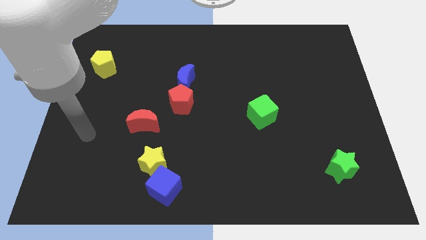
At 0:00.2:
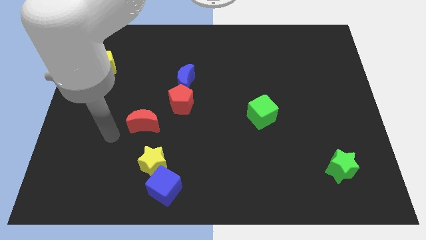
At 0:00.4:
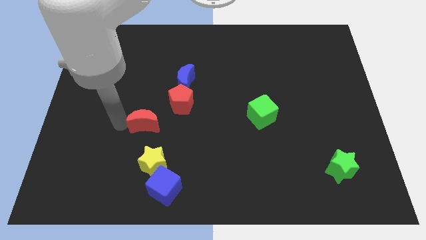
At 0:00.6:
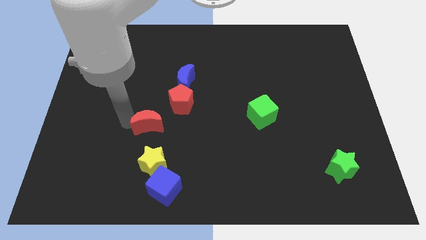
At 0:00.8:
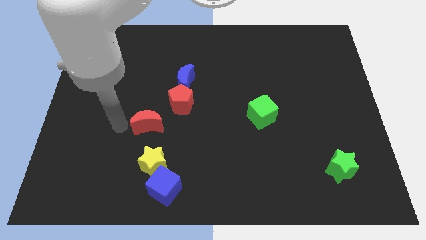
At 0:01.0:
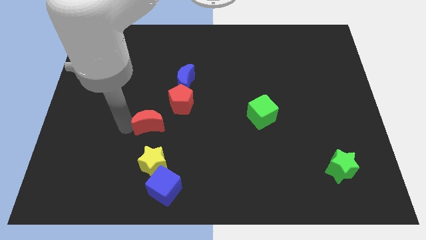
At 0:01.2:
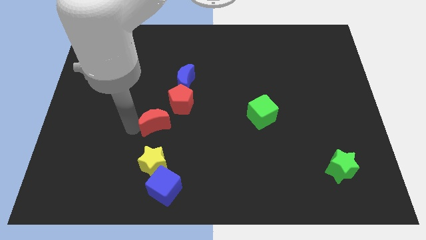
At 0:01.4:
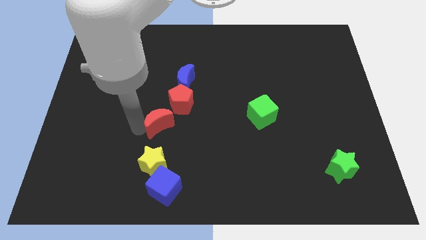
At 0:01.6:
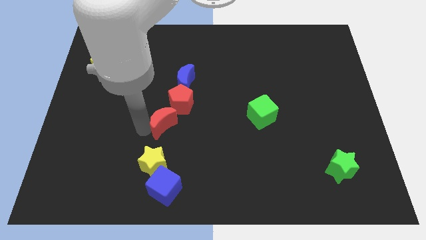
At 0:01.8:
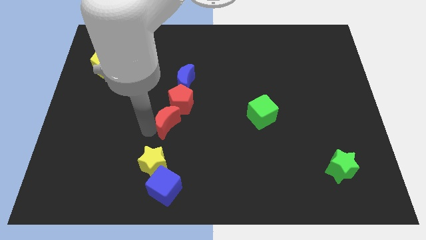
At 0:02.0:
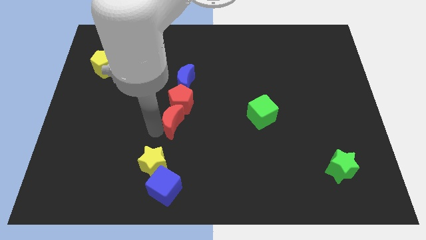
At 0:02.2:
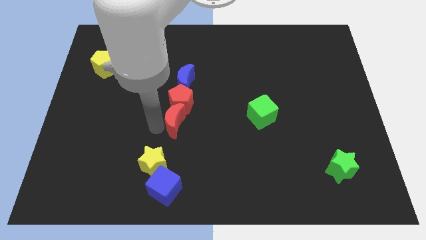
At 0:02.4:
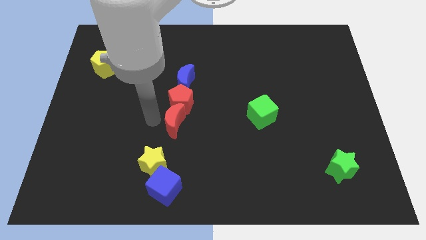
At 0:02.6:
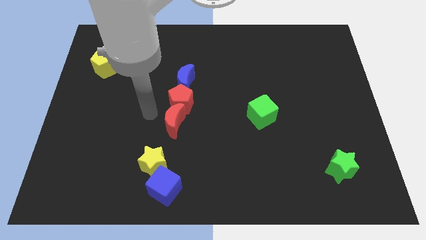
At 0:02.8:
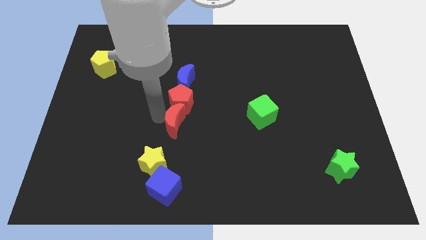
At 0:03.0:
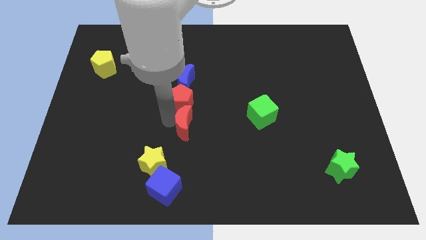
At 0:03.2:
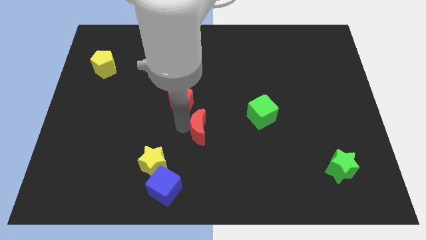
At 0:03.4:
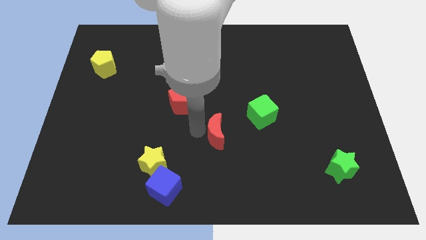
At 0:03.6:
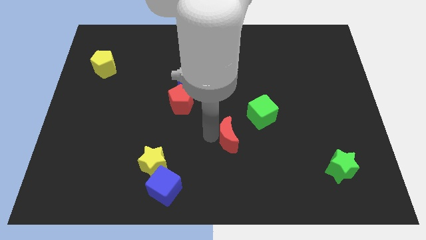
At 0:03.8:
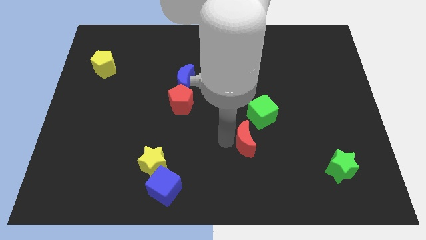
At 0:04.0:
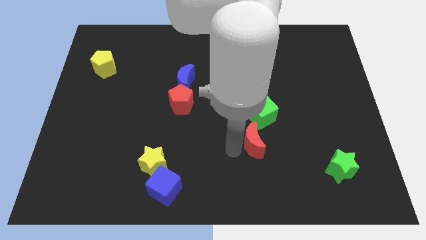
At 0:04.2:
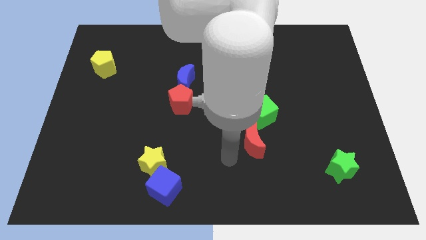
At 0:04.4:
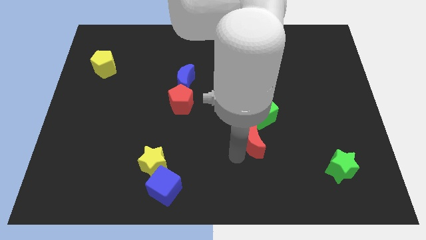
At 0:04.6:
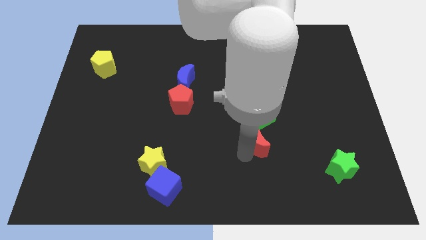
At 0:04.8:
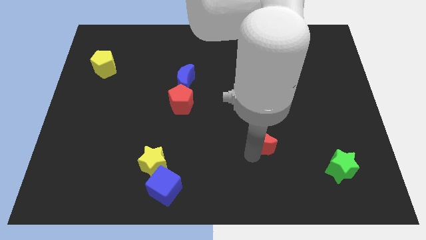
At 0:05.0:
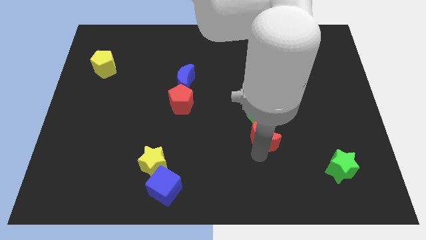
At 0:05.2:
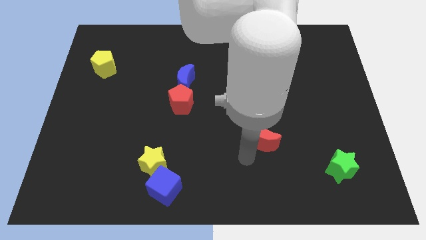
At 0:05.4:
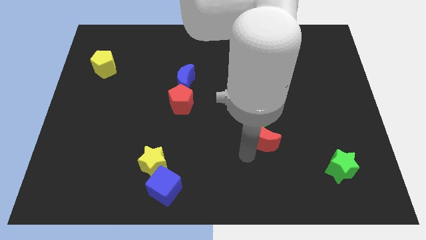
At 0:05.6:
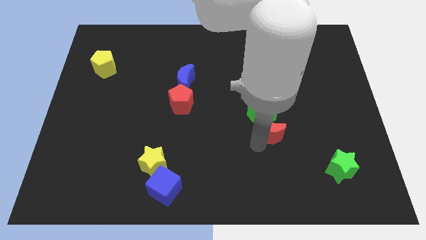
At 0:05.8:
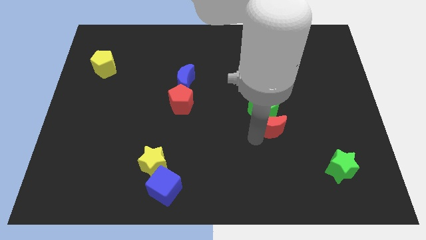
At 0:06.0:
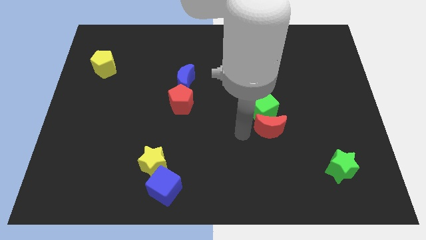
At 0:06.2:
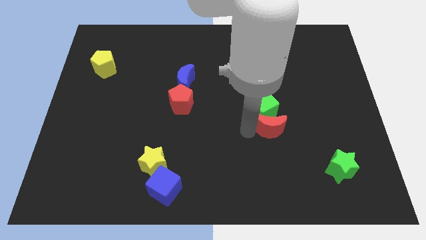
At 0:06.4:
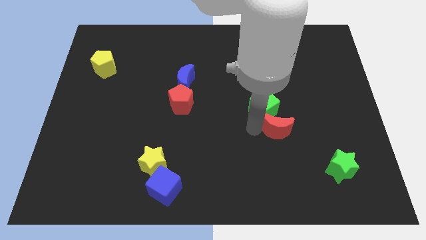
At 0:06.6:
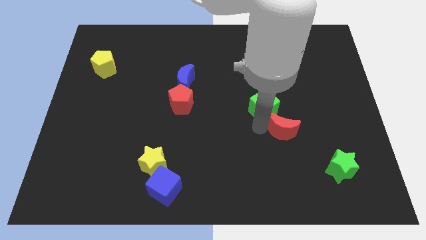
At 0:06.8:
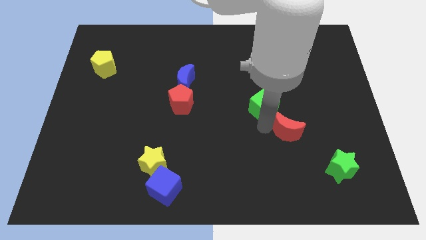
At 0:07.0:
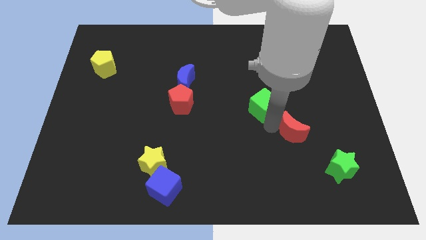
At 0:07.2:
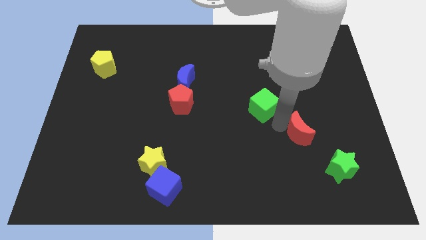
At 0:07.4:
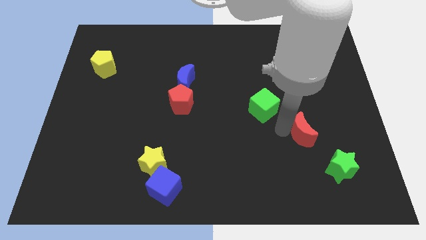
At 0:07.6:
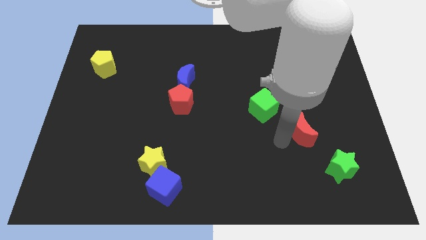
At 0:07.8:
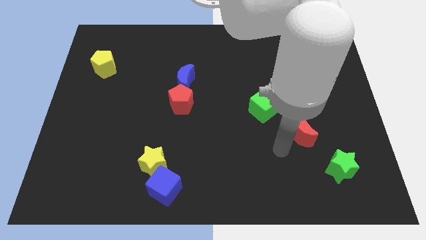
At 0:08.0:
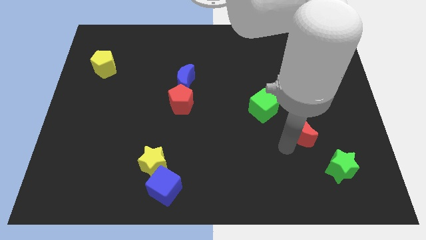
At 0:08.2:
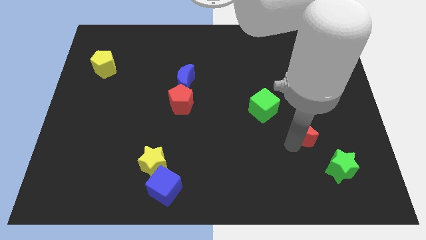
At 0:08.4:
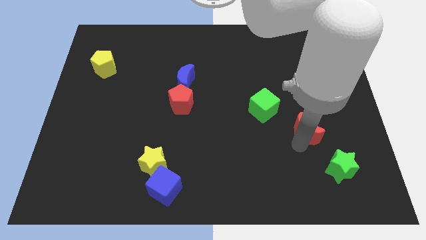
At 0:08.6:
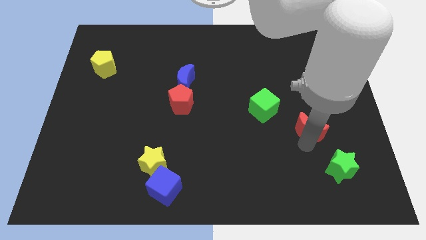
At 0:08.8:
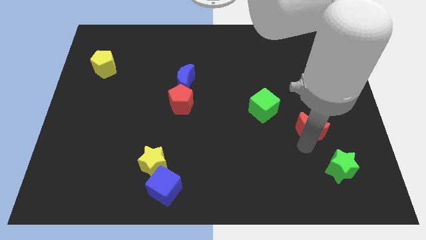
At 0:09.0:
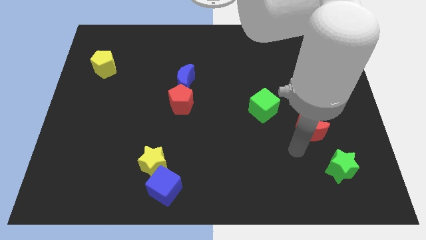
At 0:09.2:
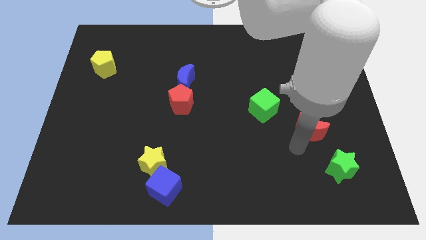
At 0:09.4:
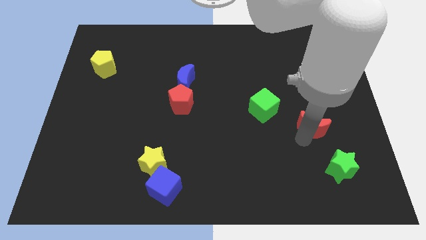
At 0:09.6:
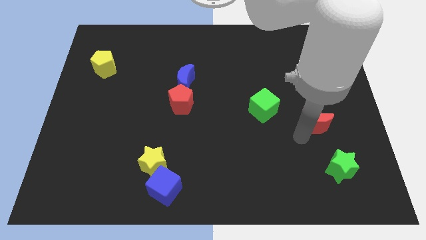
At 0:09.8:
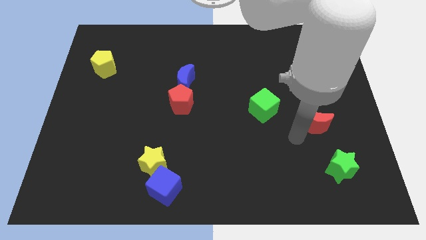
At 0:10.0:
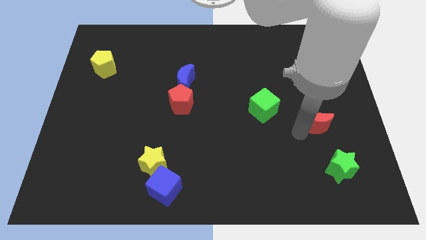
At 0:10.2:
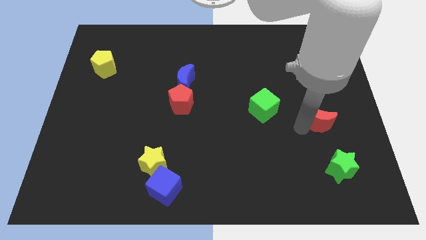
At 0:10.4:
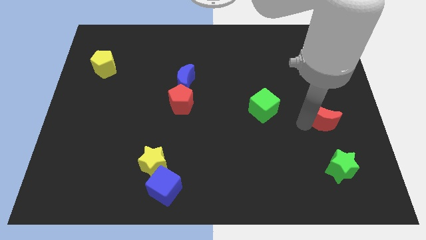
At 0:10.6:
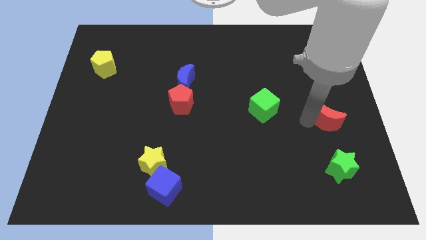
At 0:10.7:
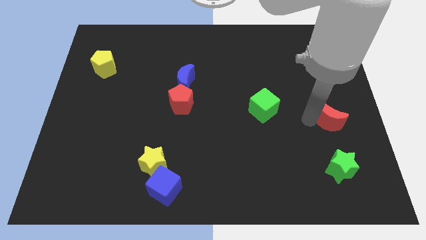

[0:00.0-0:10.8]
slide the red moon to the center right

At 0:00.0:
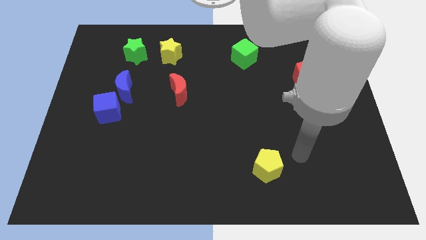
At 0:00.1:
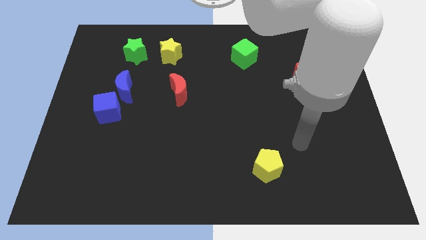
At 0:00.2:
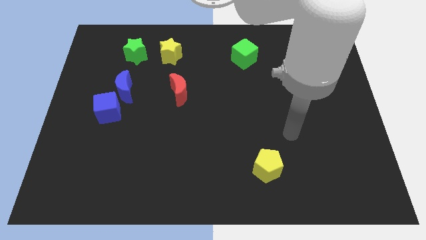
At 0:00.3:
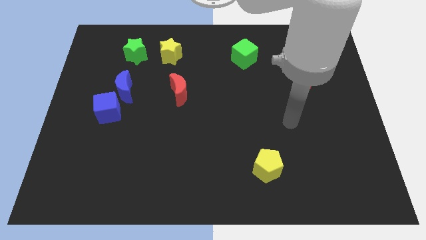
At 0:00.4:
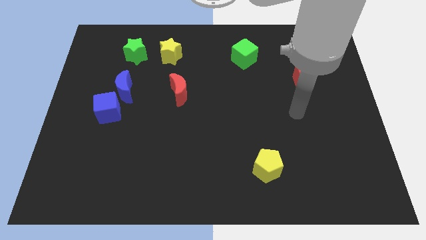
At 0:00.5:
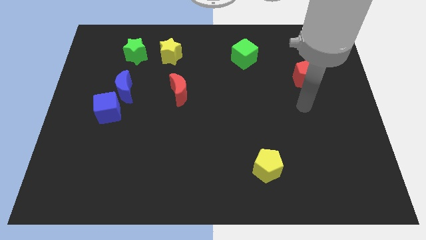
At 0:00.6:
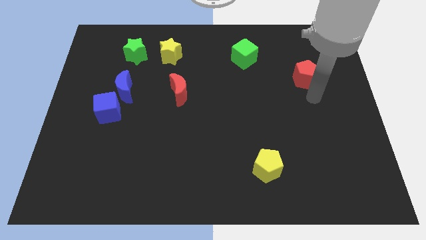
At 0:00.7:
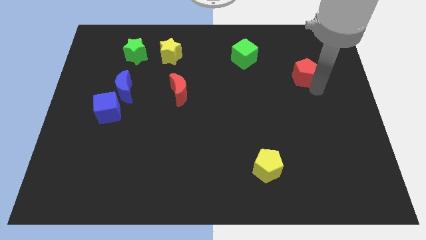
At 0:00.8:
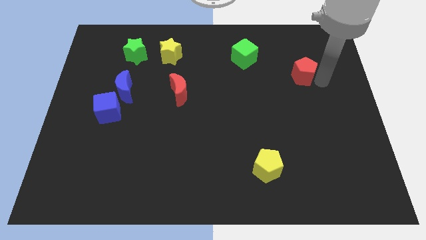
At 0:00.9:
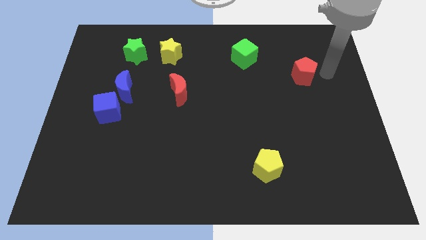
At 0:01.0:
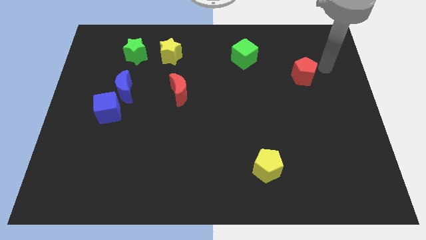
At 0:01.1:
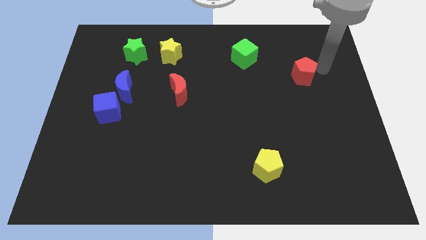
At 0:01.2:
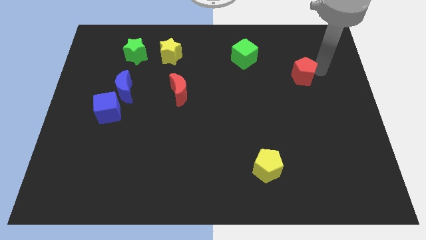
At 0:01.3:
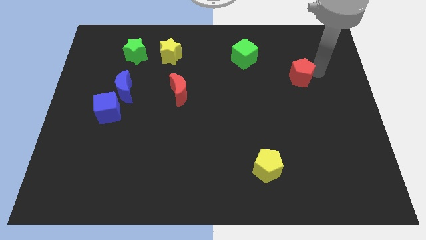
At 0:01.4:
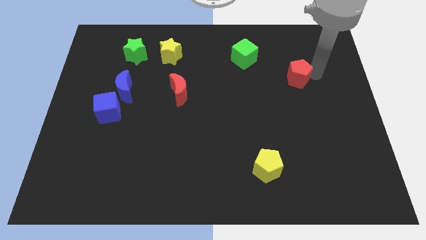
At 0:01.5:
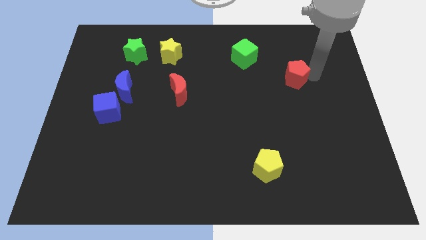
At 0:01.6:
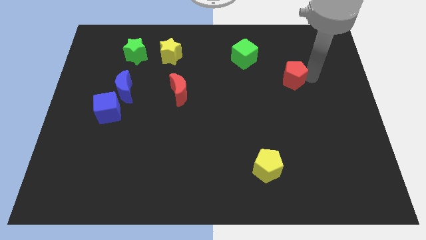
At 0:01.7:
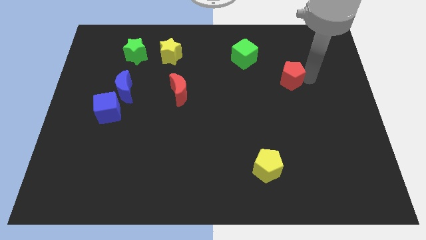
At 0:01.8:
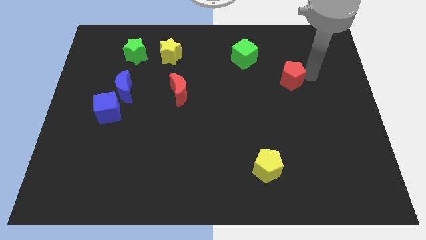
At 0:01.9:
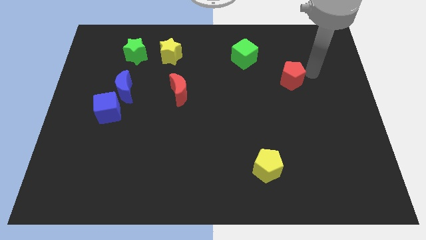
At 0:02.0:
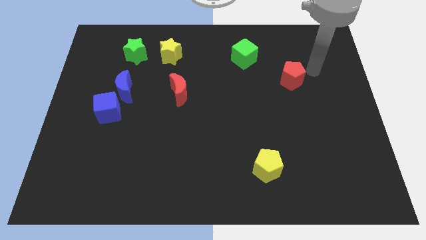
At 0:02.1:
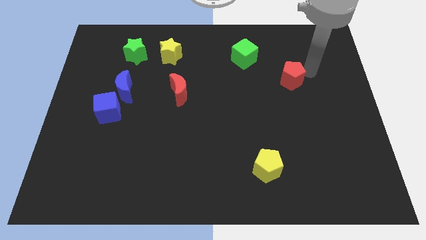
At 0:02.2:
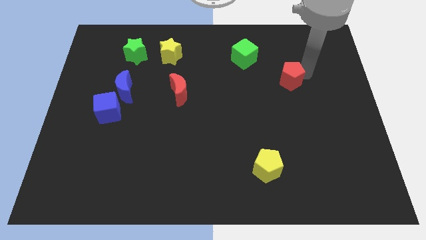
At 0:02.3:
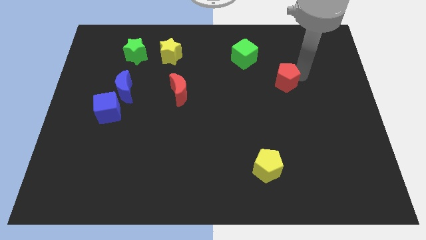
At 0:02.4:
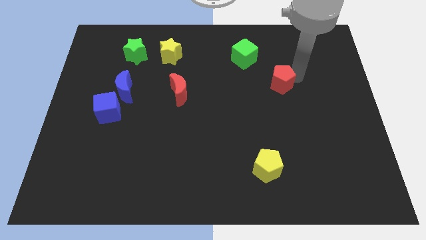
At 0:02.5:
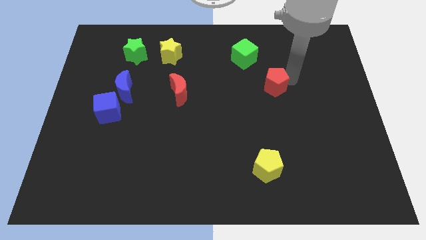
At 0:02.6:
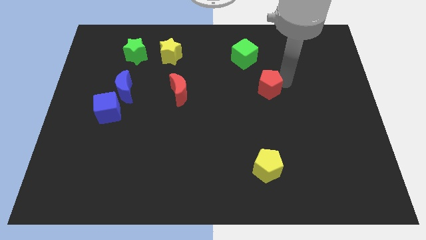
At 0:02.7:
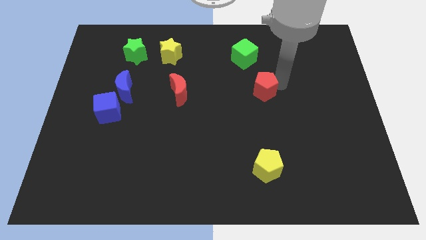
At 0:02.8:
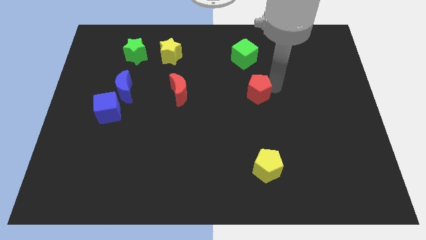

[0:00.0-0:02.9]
move the red pentagon to the center
